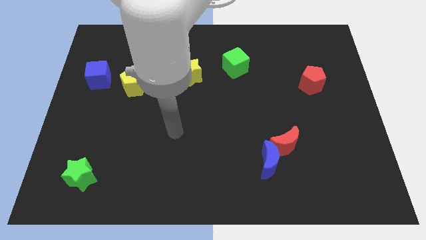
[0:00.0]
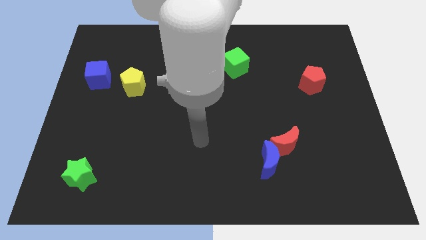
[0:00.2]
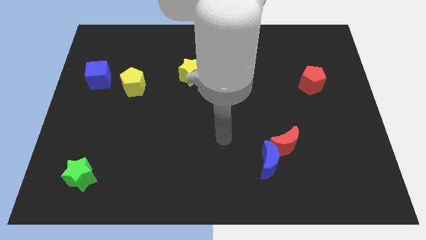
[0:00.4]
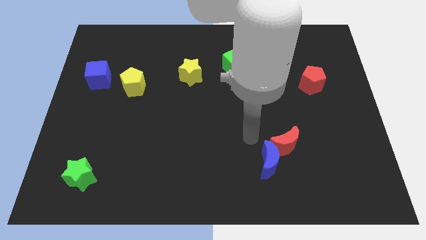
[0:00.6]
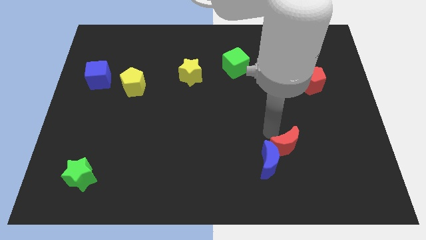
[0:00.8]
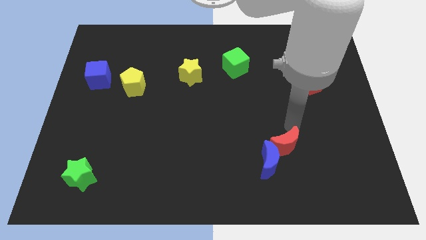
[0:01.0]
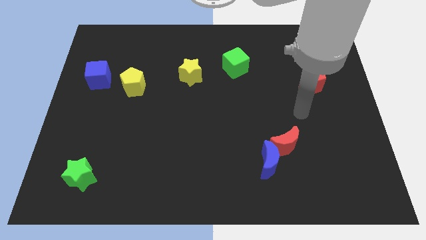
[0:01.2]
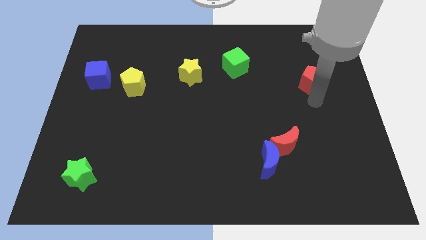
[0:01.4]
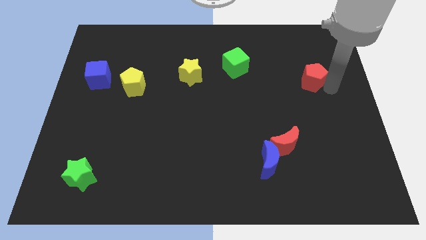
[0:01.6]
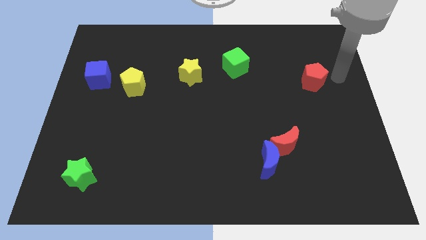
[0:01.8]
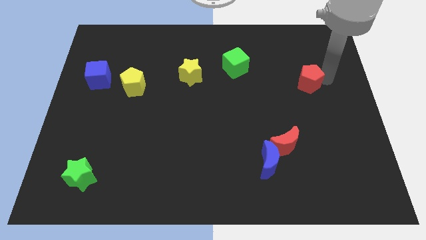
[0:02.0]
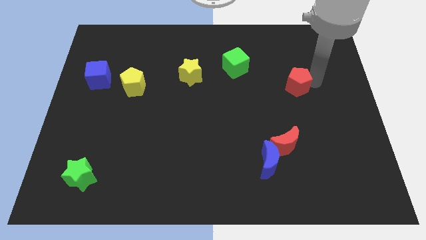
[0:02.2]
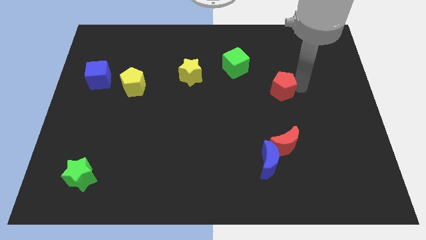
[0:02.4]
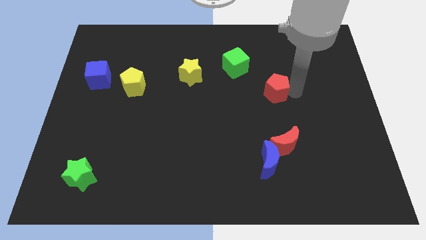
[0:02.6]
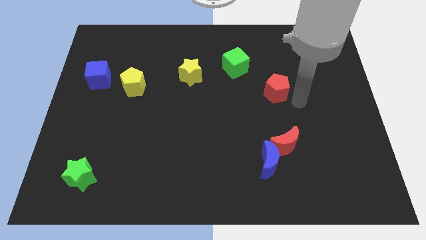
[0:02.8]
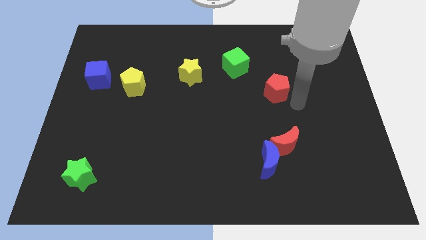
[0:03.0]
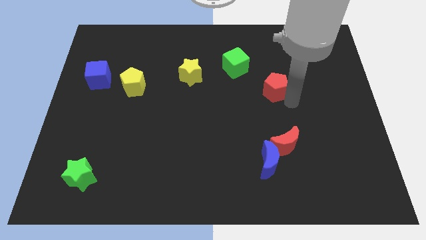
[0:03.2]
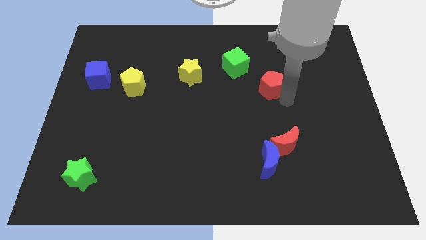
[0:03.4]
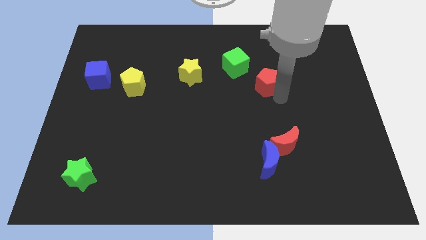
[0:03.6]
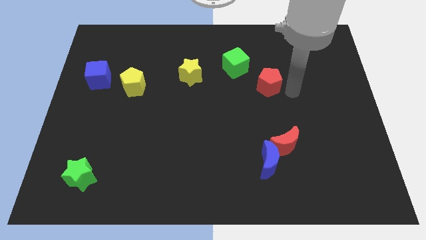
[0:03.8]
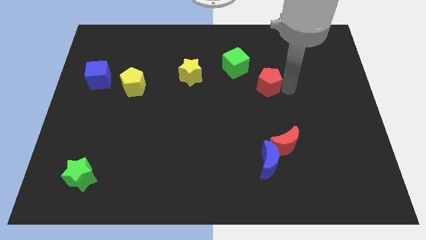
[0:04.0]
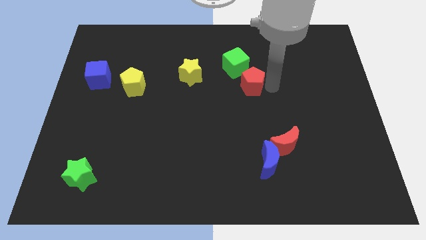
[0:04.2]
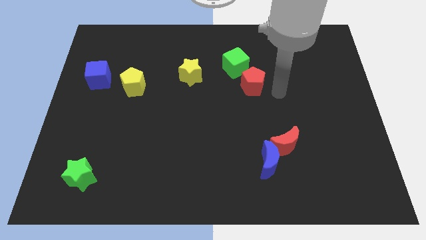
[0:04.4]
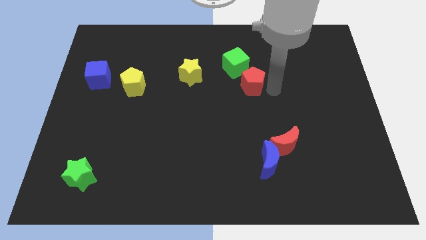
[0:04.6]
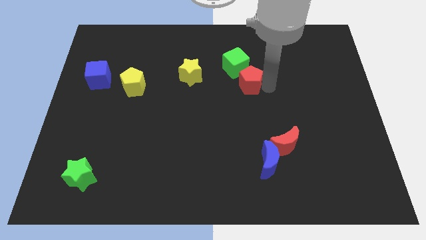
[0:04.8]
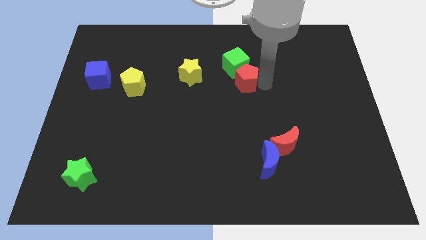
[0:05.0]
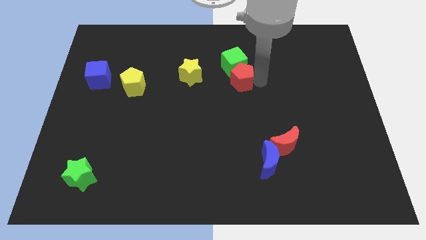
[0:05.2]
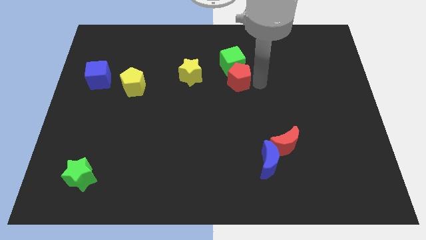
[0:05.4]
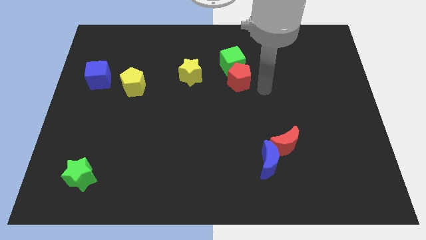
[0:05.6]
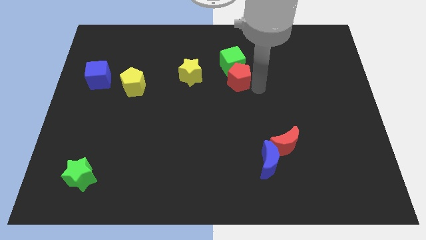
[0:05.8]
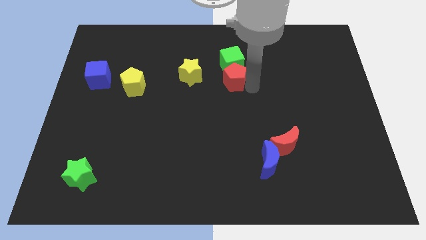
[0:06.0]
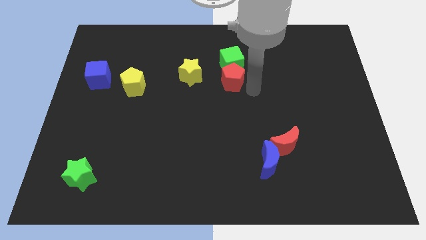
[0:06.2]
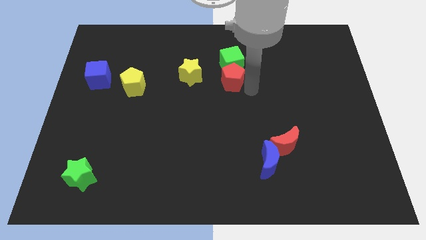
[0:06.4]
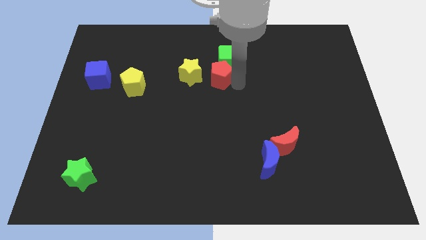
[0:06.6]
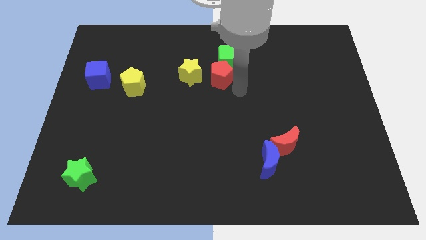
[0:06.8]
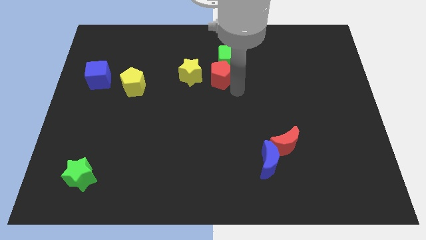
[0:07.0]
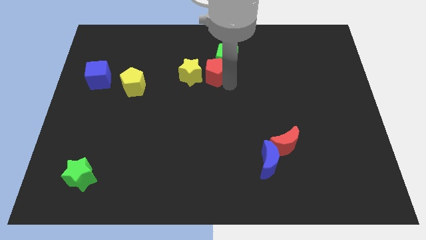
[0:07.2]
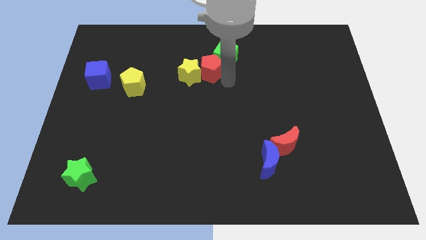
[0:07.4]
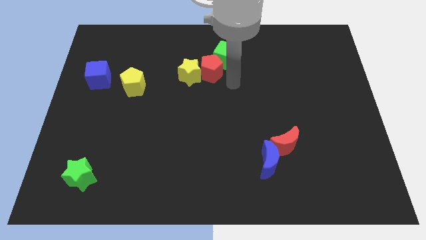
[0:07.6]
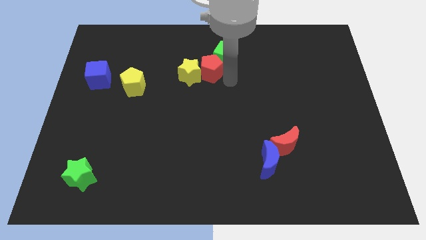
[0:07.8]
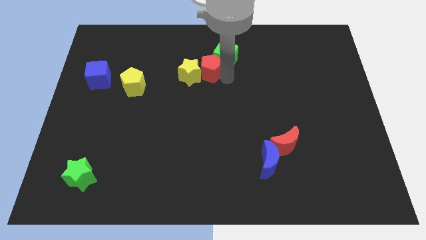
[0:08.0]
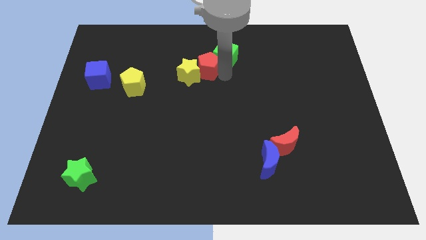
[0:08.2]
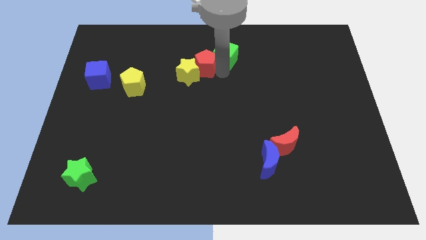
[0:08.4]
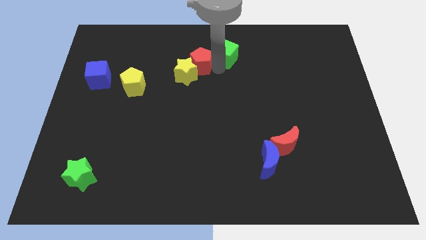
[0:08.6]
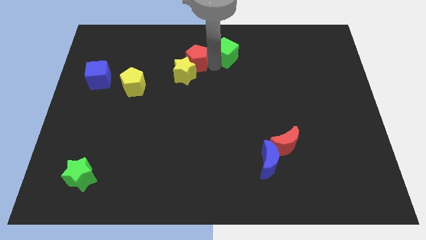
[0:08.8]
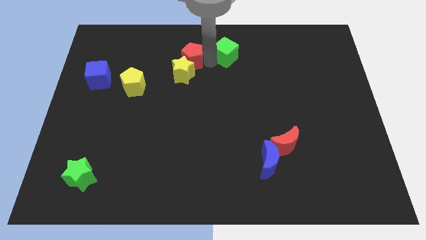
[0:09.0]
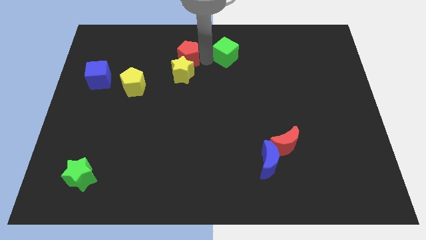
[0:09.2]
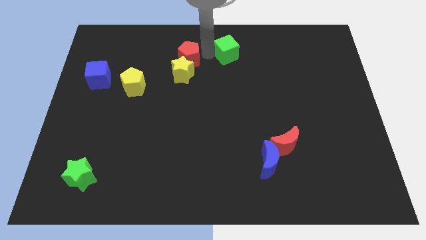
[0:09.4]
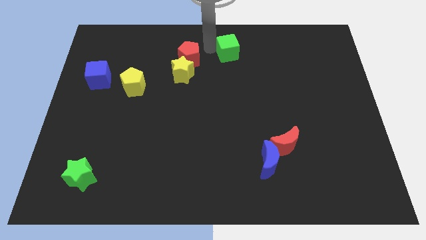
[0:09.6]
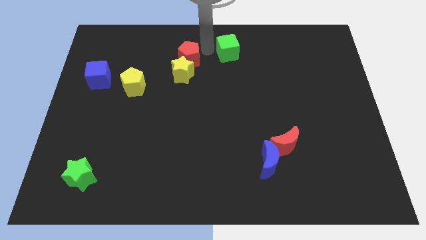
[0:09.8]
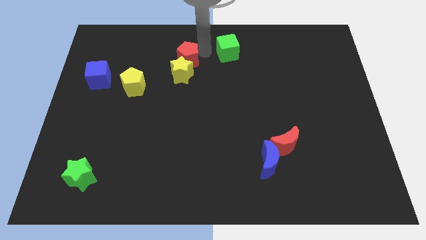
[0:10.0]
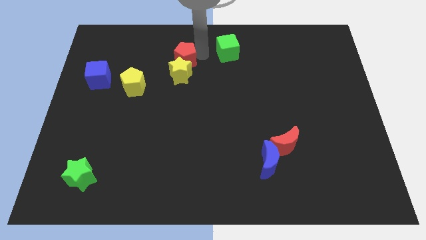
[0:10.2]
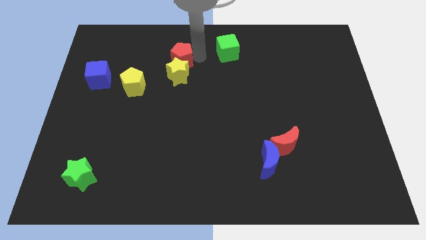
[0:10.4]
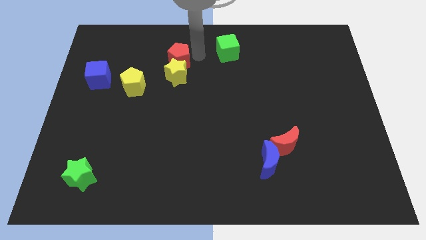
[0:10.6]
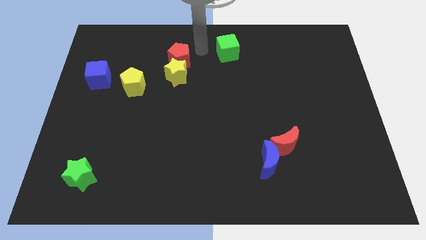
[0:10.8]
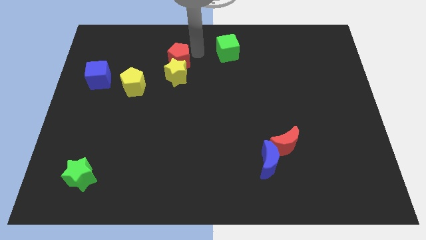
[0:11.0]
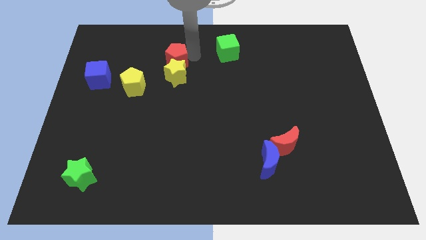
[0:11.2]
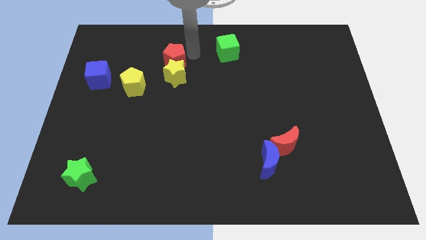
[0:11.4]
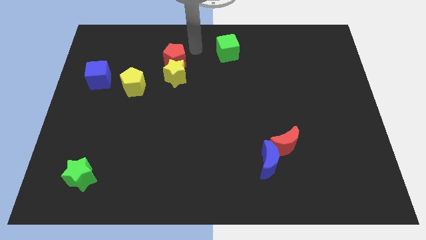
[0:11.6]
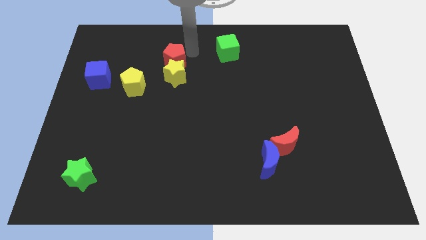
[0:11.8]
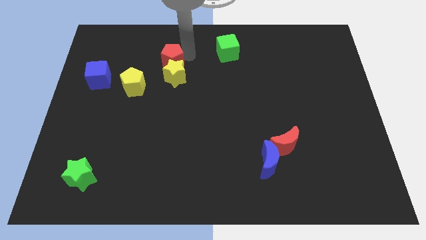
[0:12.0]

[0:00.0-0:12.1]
slide the red pentagon to the top right side of the yellow pentagon
